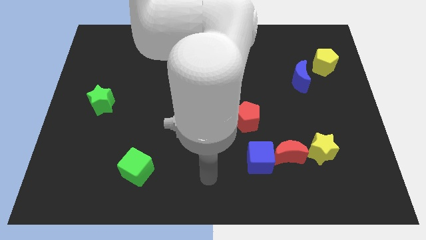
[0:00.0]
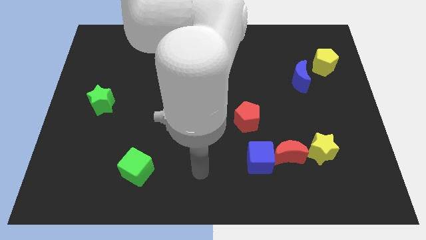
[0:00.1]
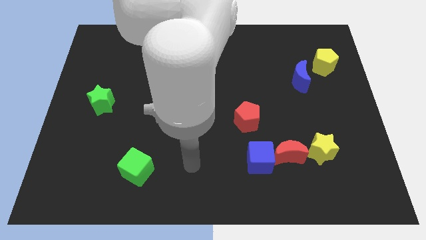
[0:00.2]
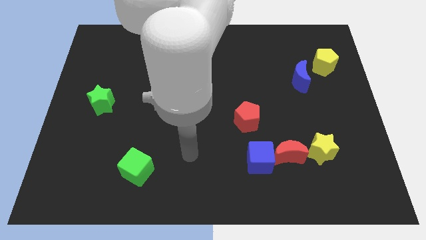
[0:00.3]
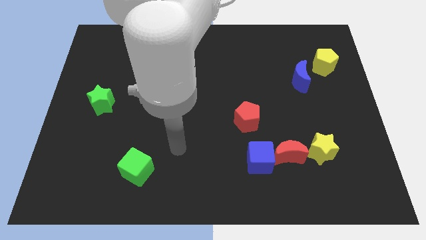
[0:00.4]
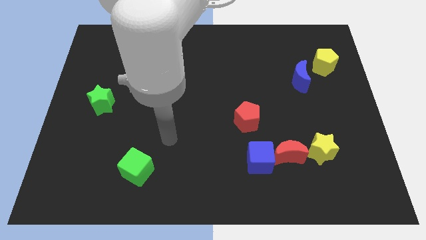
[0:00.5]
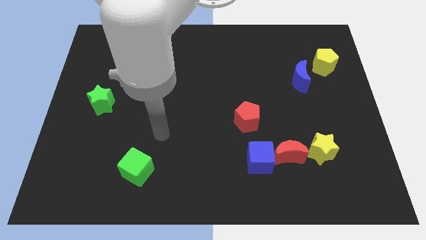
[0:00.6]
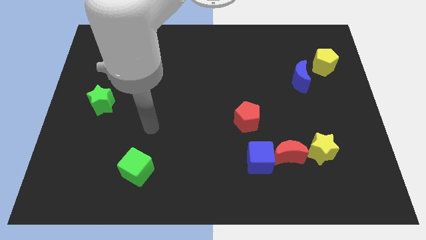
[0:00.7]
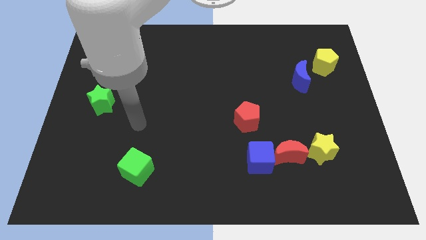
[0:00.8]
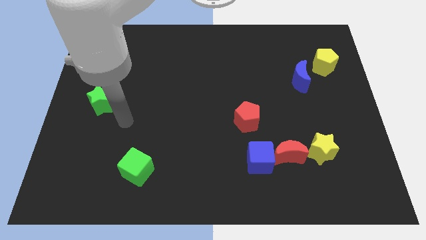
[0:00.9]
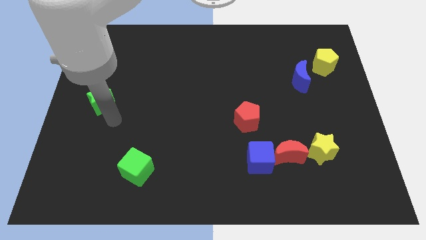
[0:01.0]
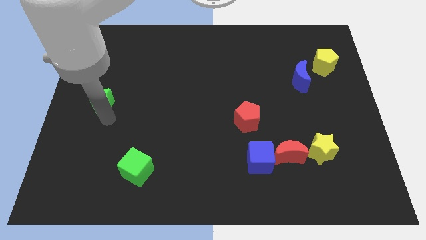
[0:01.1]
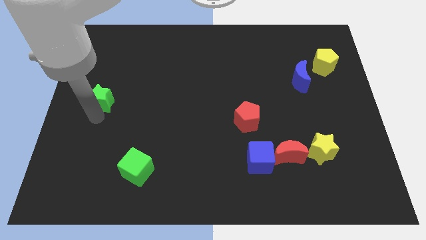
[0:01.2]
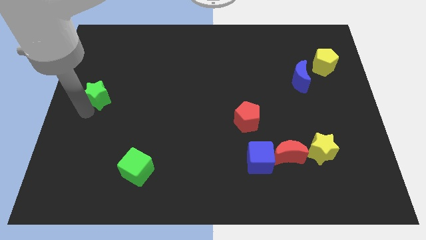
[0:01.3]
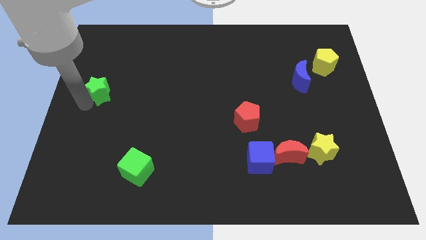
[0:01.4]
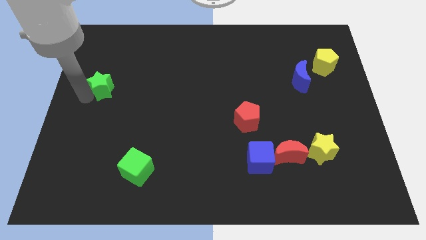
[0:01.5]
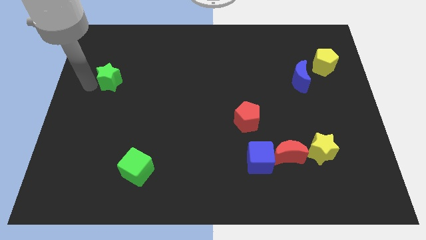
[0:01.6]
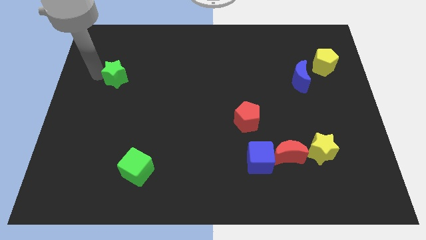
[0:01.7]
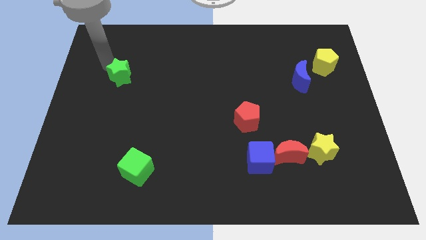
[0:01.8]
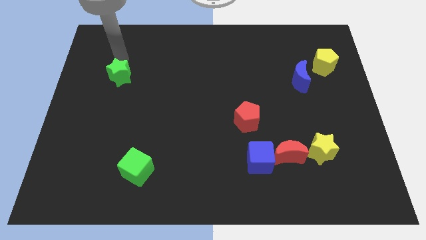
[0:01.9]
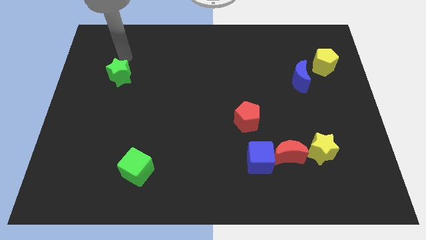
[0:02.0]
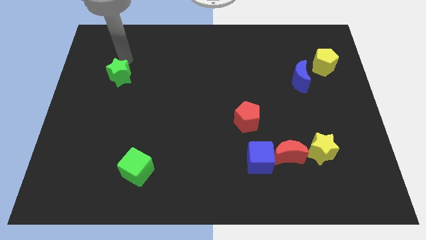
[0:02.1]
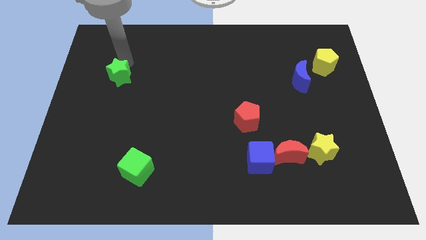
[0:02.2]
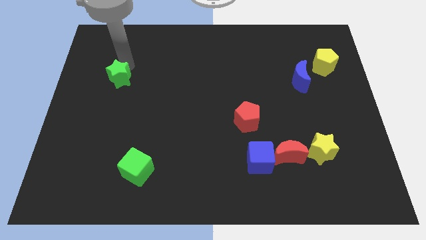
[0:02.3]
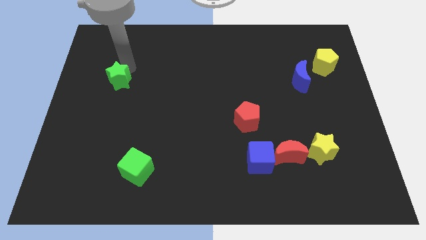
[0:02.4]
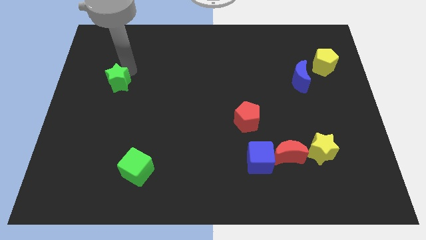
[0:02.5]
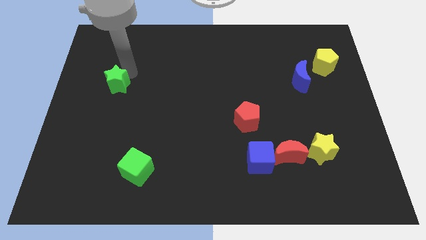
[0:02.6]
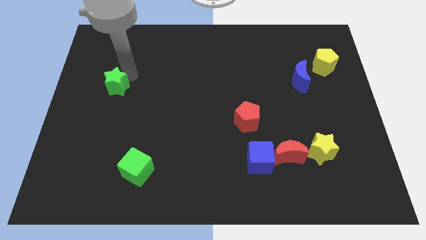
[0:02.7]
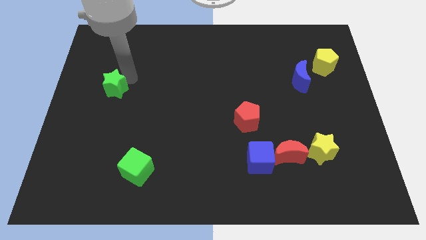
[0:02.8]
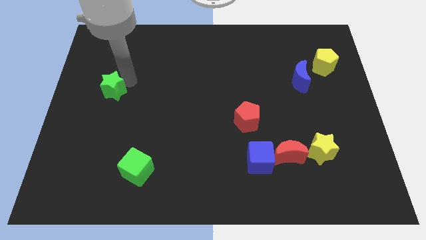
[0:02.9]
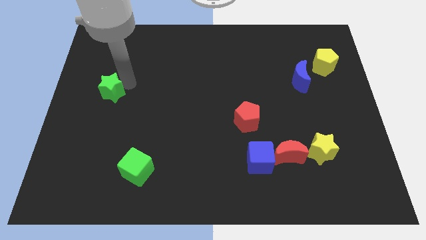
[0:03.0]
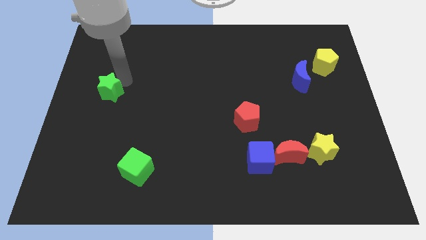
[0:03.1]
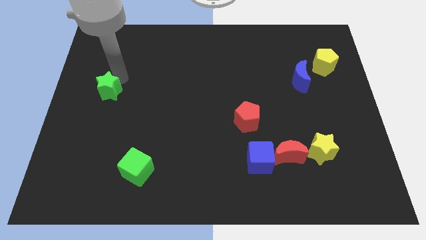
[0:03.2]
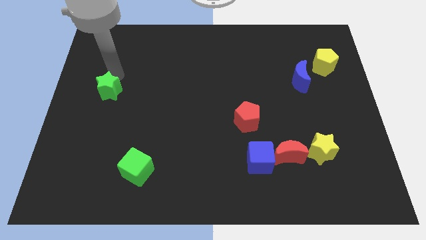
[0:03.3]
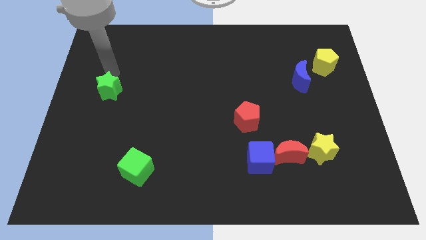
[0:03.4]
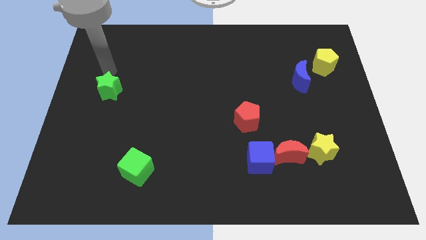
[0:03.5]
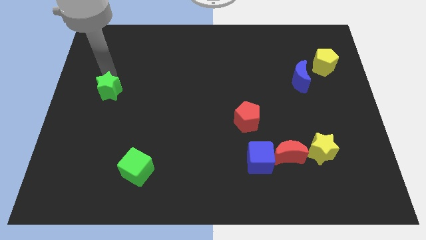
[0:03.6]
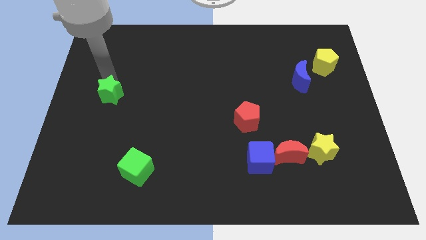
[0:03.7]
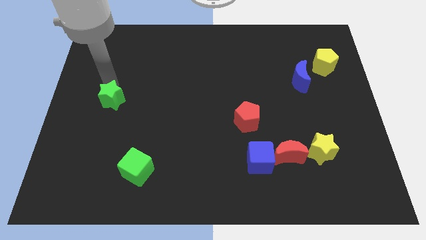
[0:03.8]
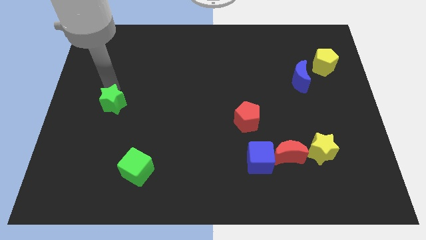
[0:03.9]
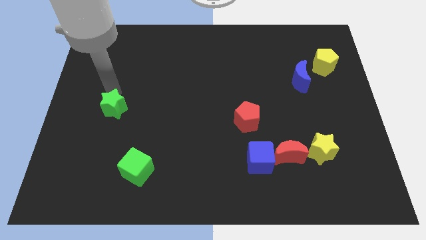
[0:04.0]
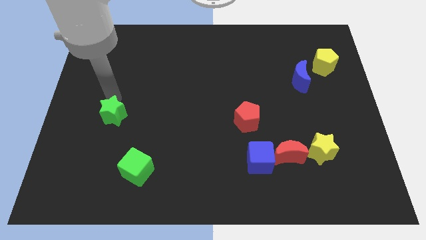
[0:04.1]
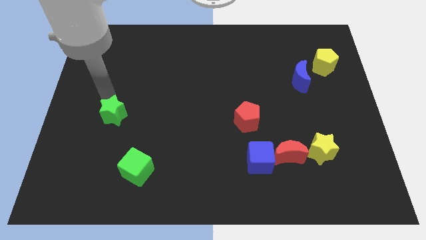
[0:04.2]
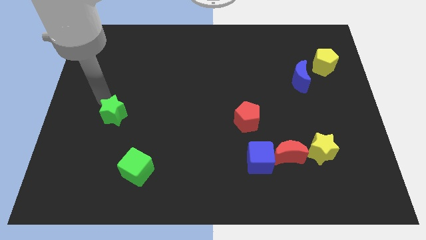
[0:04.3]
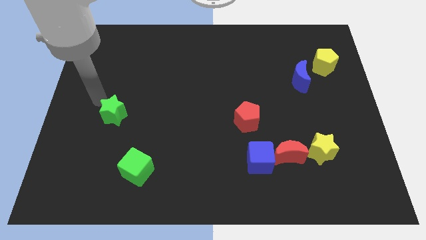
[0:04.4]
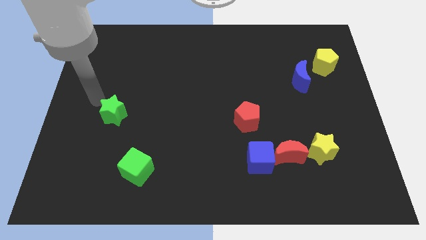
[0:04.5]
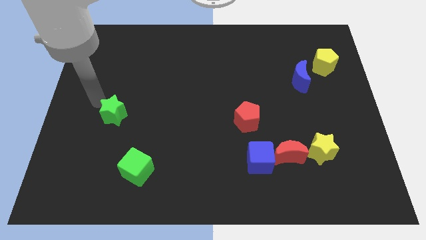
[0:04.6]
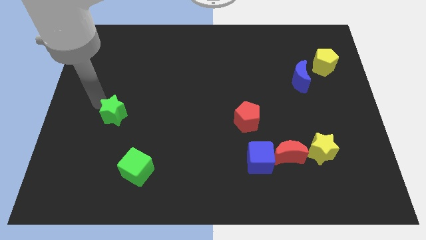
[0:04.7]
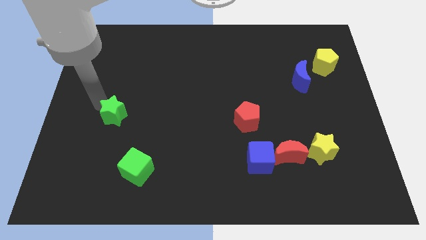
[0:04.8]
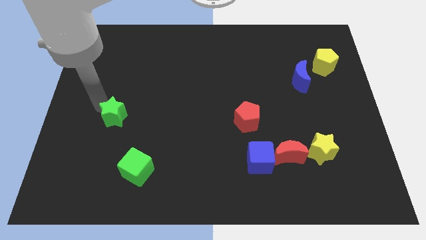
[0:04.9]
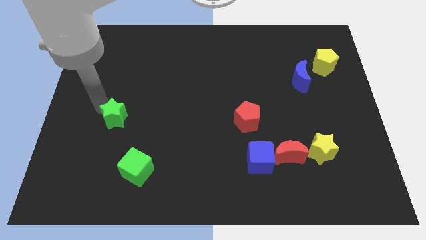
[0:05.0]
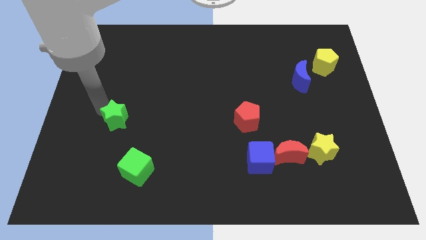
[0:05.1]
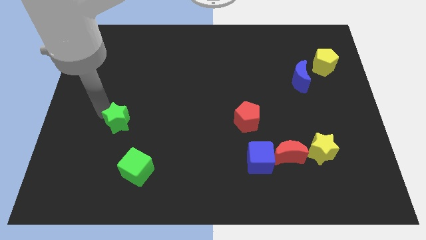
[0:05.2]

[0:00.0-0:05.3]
slightly slide the green star diagonally down and right

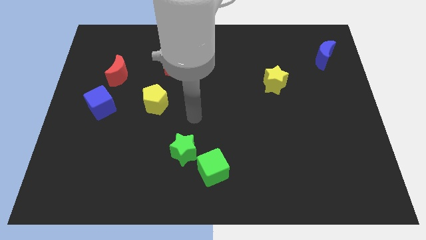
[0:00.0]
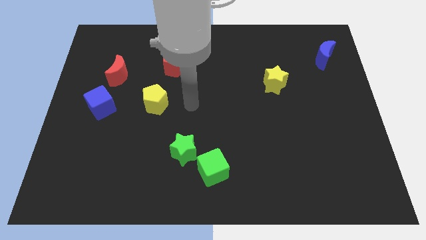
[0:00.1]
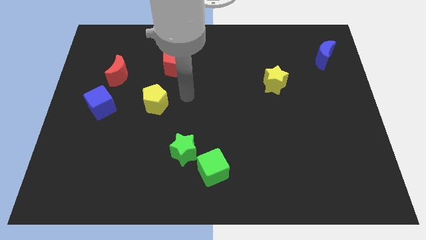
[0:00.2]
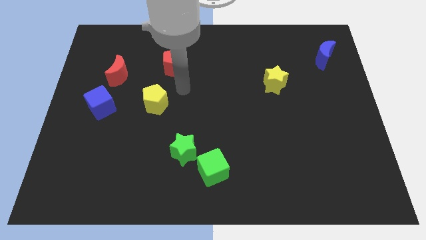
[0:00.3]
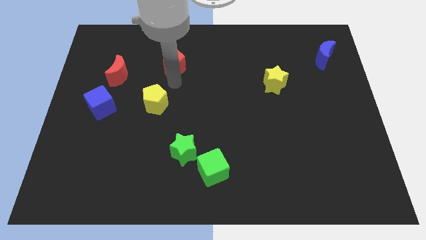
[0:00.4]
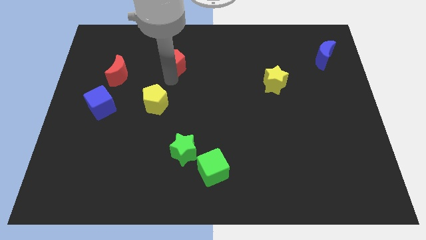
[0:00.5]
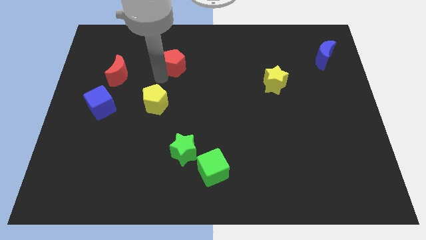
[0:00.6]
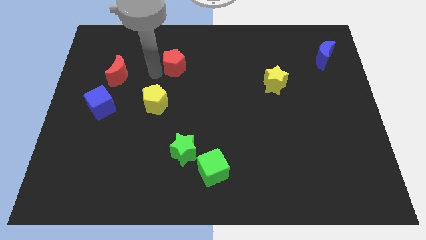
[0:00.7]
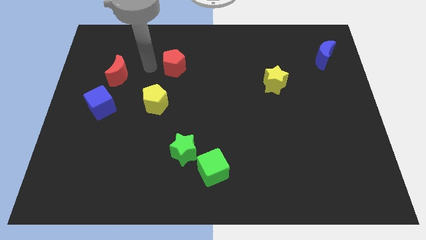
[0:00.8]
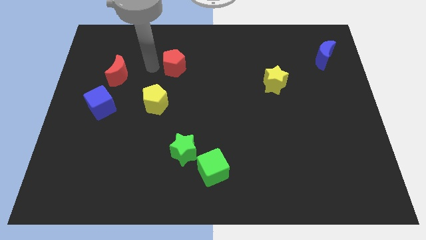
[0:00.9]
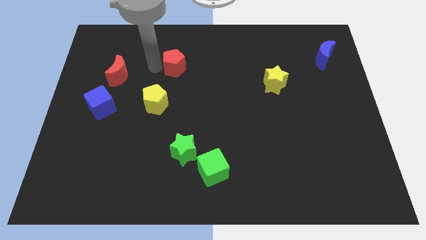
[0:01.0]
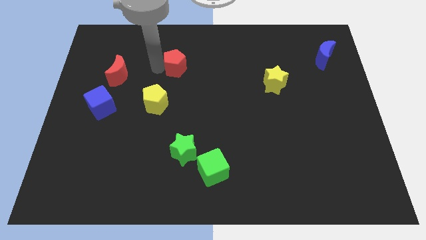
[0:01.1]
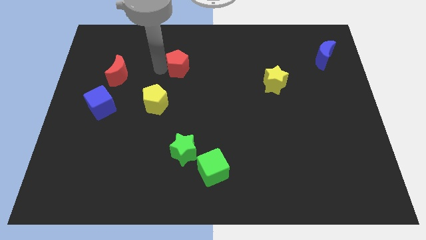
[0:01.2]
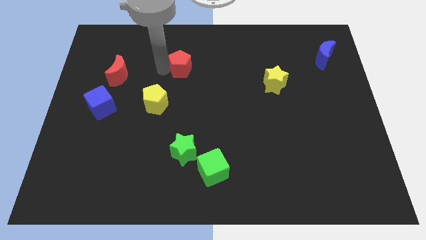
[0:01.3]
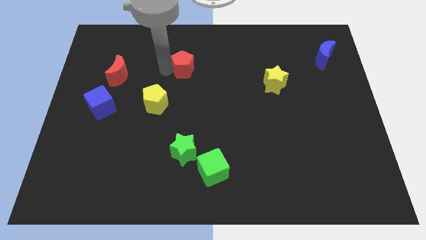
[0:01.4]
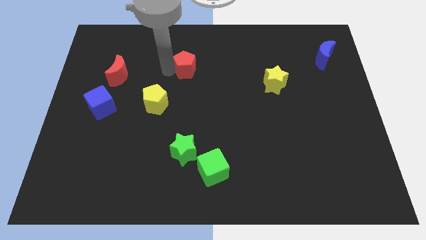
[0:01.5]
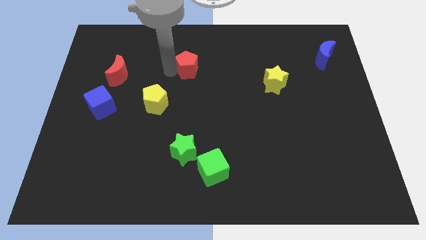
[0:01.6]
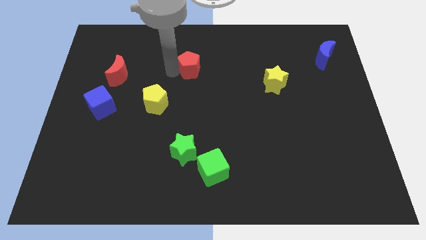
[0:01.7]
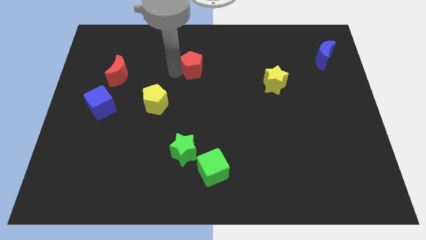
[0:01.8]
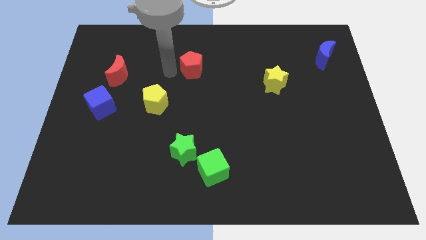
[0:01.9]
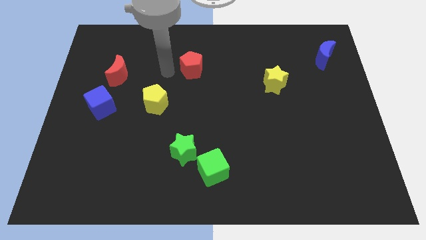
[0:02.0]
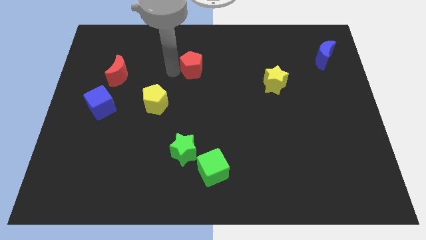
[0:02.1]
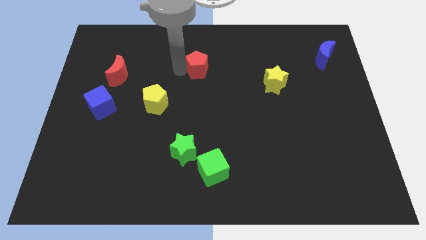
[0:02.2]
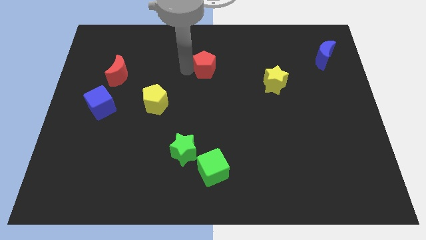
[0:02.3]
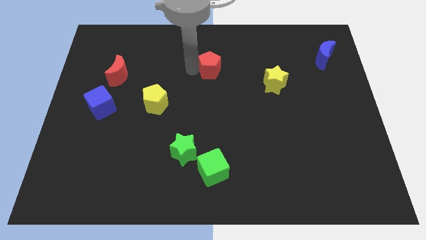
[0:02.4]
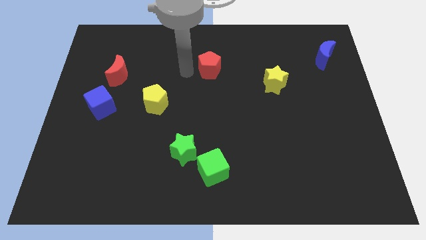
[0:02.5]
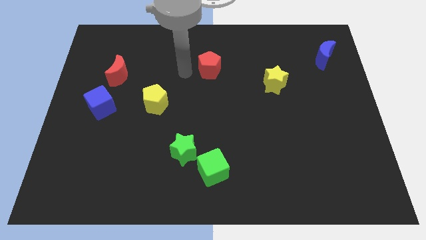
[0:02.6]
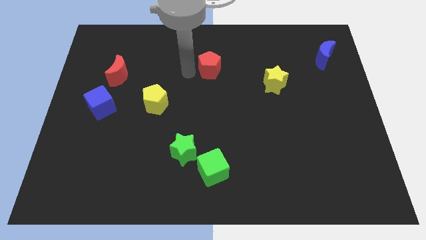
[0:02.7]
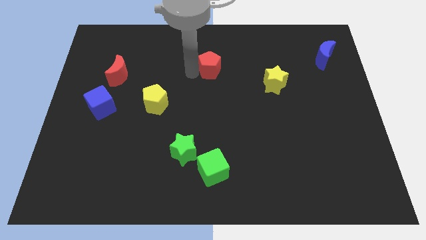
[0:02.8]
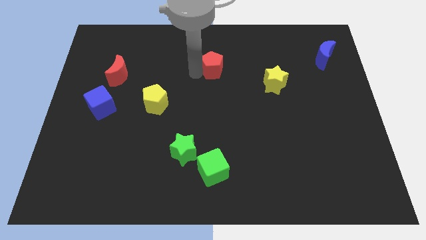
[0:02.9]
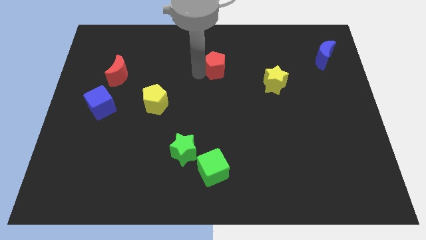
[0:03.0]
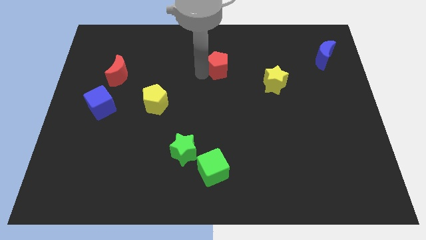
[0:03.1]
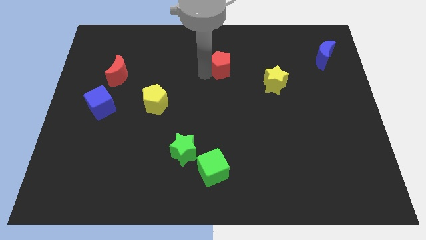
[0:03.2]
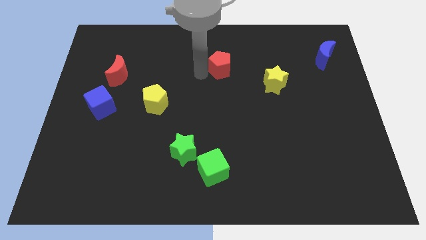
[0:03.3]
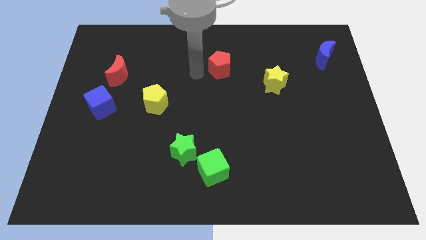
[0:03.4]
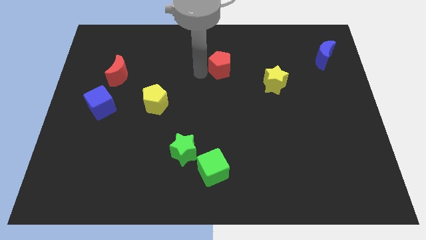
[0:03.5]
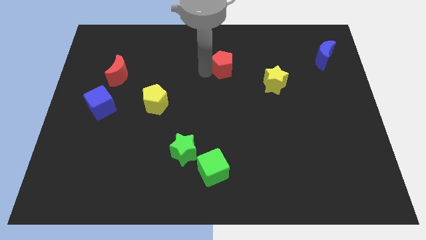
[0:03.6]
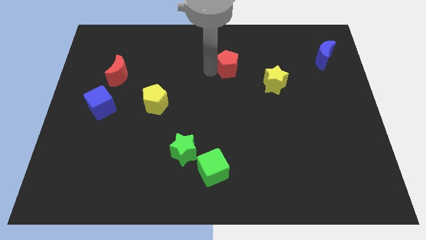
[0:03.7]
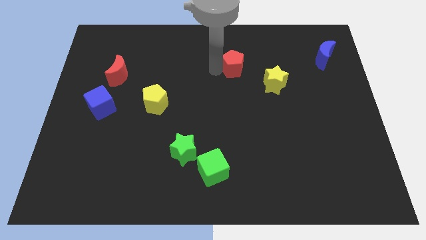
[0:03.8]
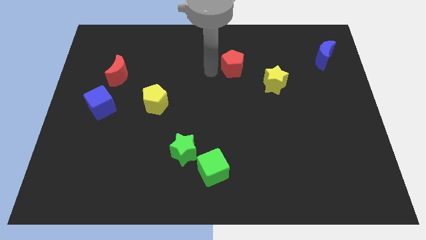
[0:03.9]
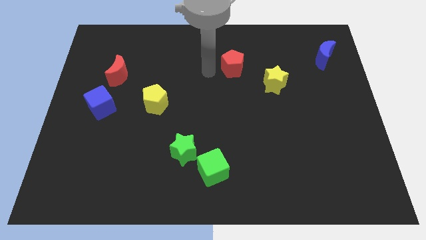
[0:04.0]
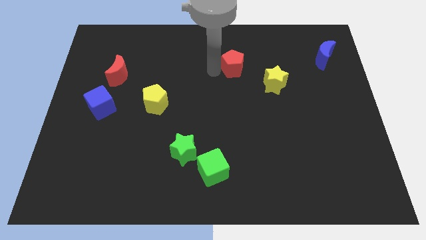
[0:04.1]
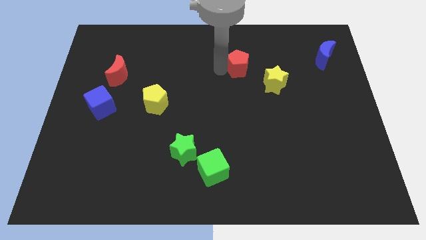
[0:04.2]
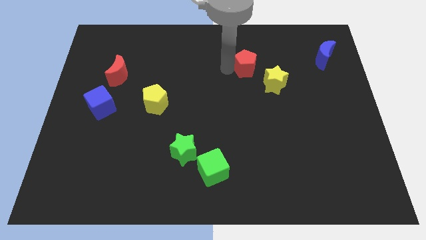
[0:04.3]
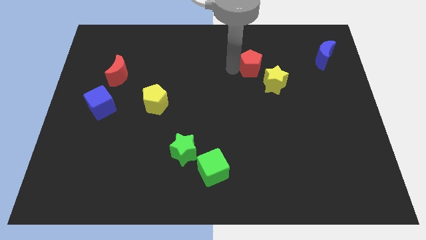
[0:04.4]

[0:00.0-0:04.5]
slide the red pentagon to the right
